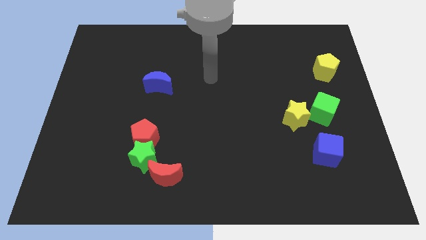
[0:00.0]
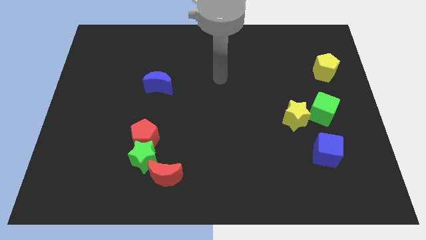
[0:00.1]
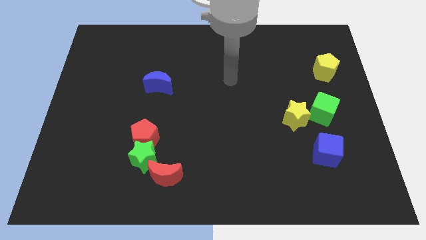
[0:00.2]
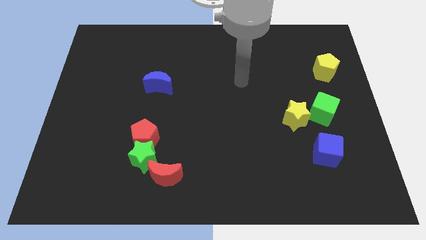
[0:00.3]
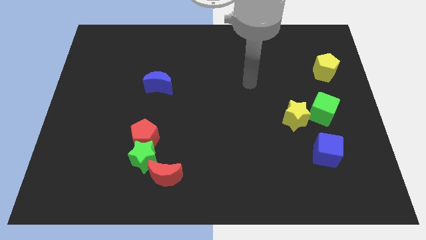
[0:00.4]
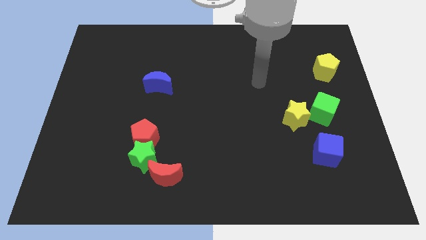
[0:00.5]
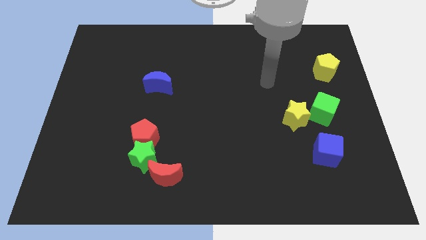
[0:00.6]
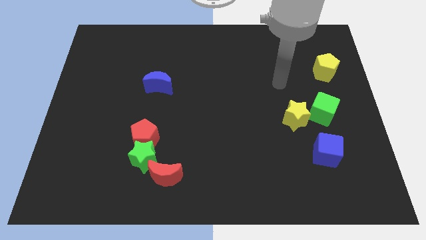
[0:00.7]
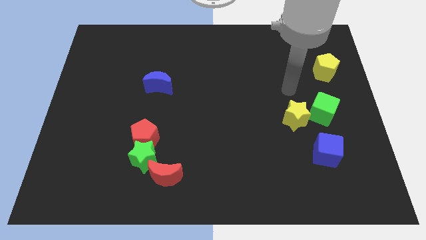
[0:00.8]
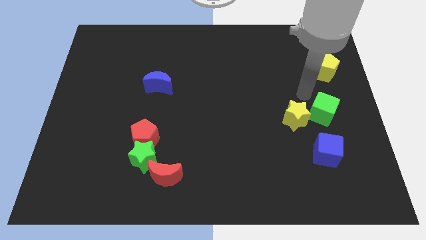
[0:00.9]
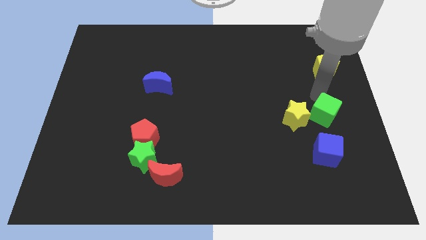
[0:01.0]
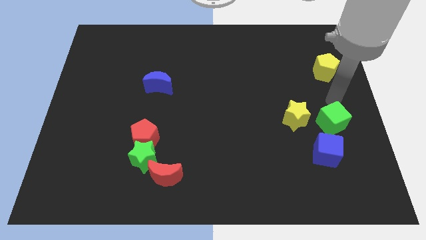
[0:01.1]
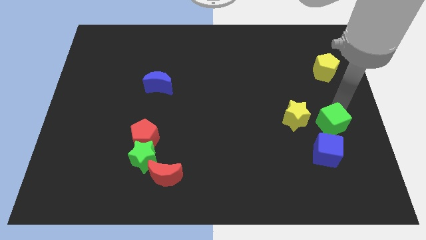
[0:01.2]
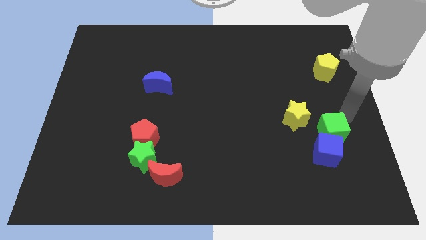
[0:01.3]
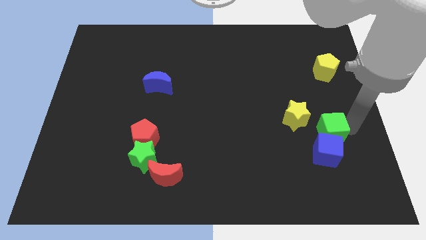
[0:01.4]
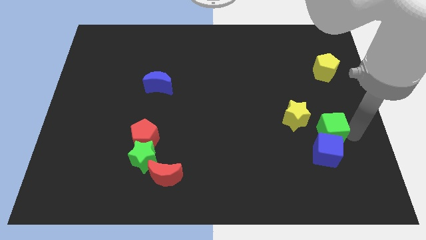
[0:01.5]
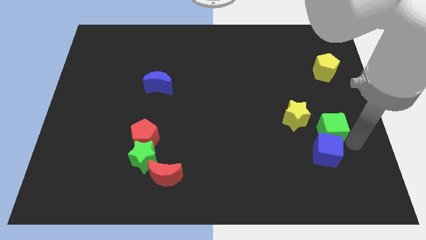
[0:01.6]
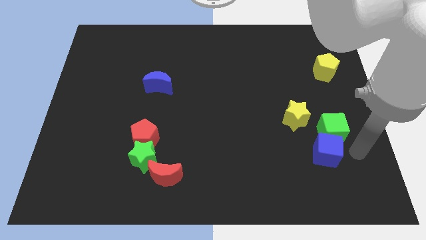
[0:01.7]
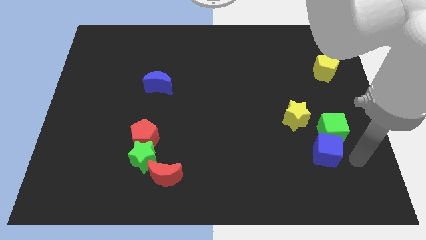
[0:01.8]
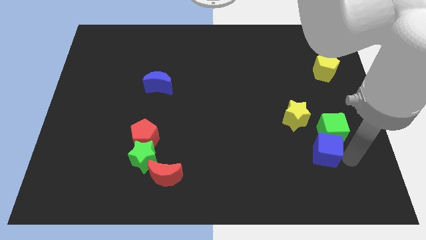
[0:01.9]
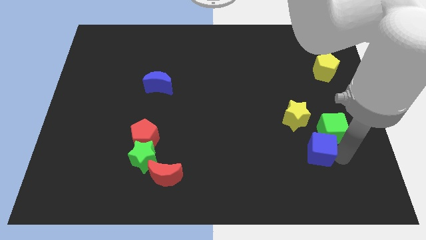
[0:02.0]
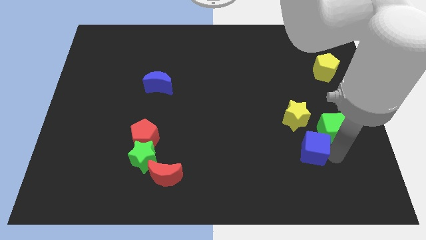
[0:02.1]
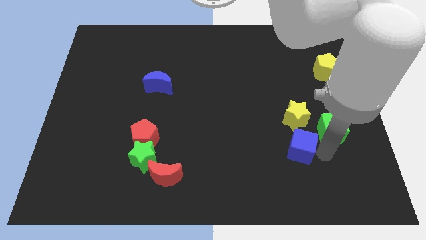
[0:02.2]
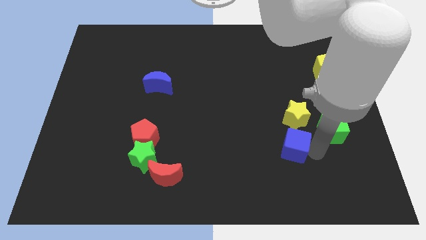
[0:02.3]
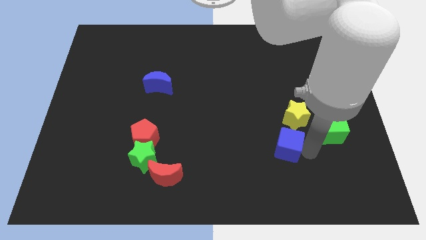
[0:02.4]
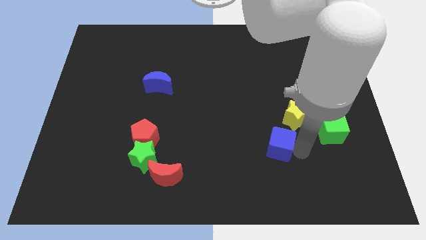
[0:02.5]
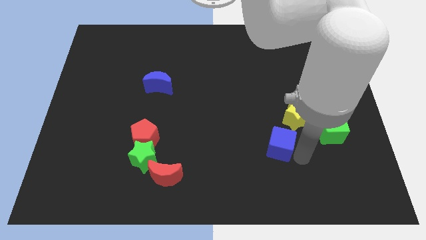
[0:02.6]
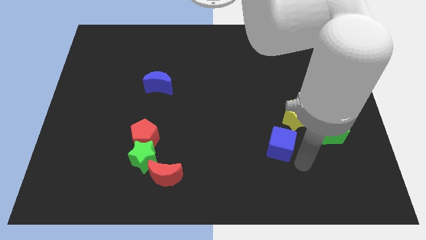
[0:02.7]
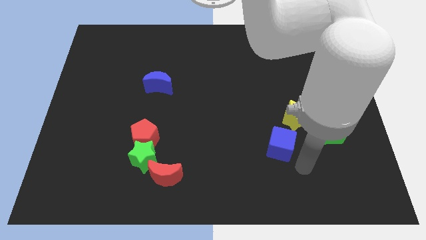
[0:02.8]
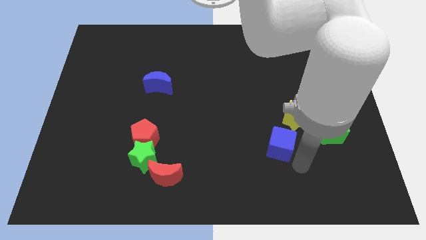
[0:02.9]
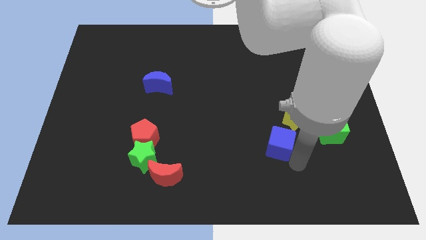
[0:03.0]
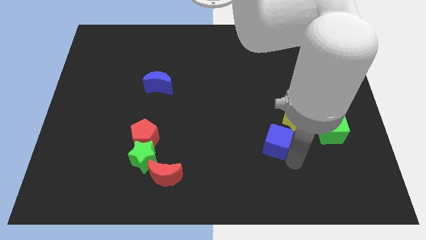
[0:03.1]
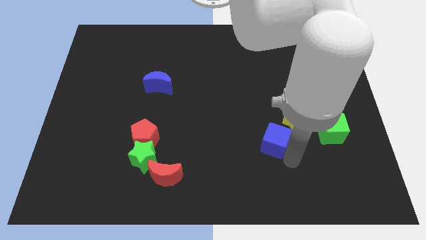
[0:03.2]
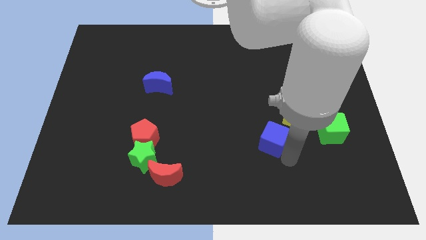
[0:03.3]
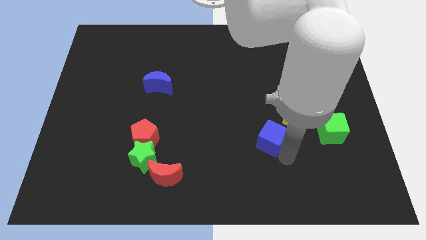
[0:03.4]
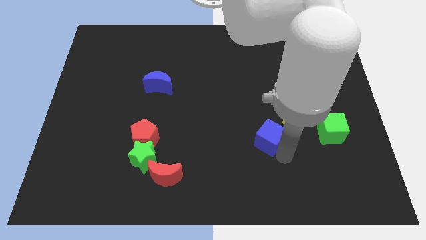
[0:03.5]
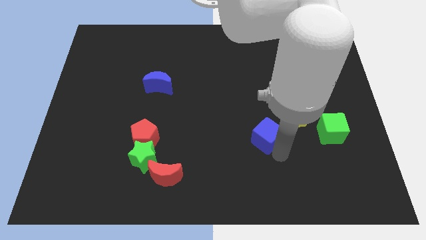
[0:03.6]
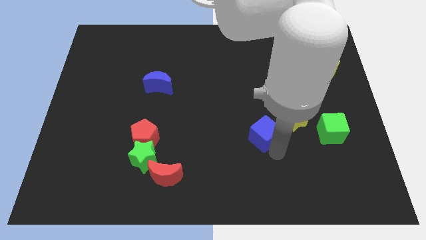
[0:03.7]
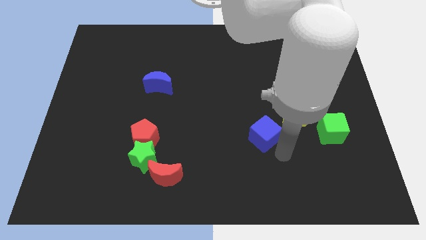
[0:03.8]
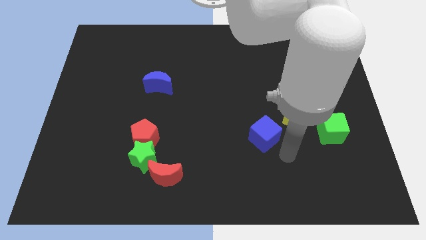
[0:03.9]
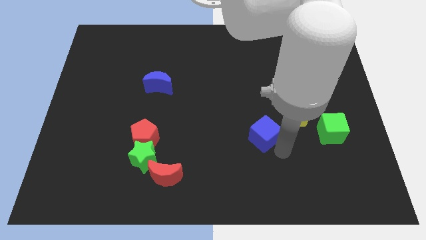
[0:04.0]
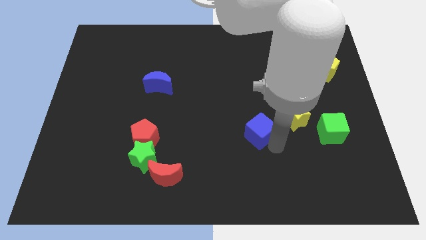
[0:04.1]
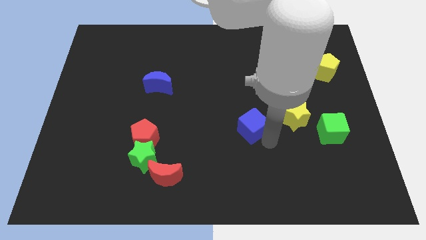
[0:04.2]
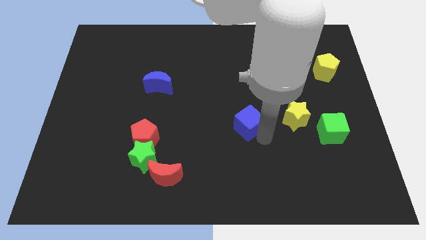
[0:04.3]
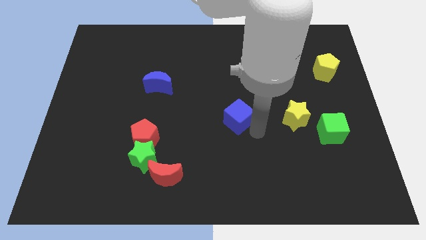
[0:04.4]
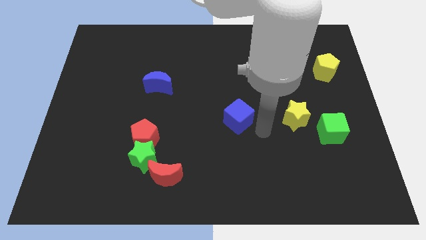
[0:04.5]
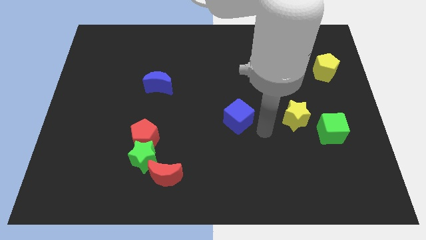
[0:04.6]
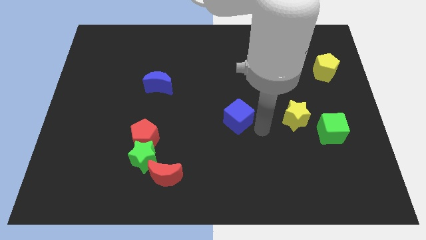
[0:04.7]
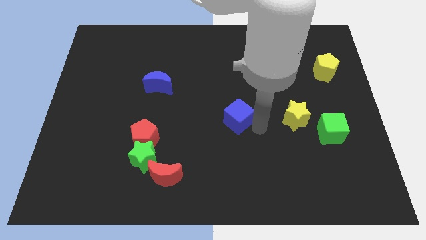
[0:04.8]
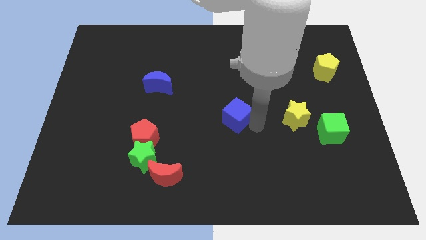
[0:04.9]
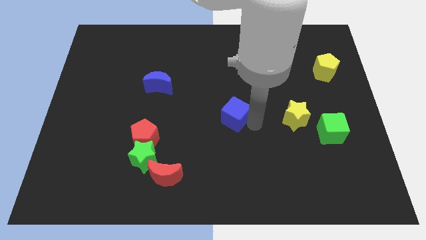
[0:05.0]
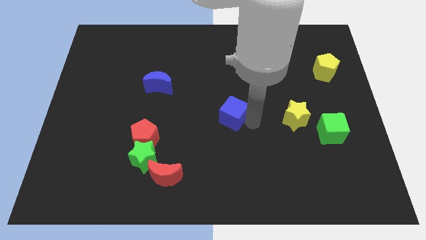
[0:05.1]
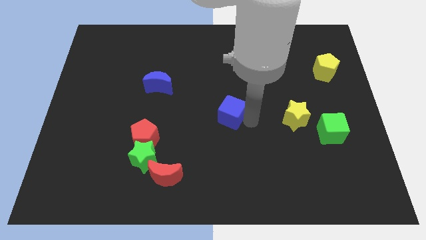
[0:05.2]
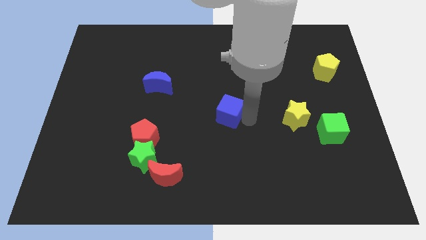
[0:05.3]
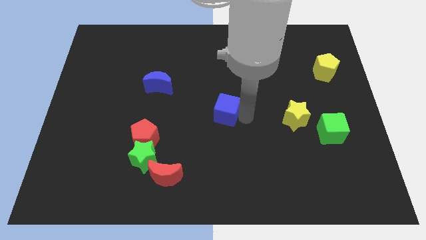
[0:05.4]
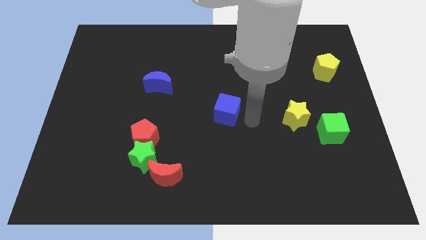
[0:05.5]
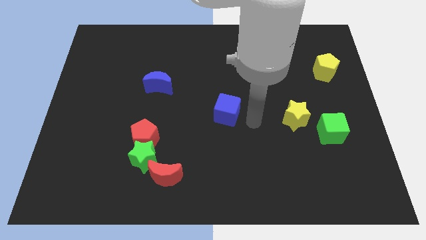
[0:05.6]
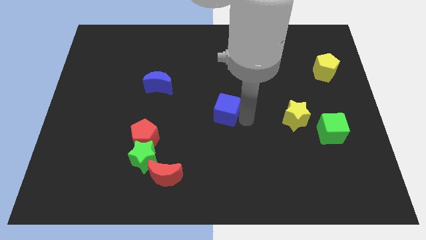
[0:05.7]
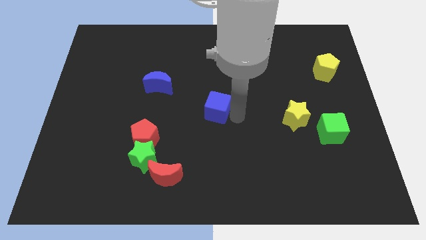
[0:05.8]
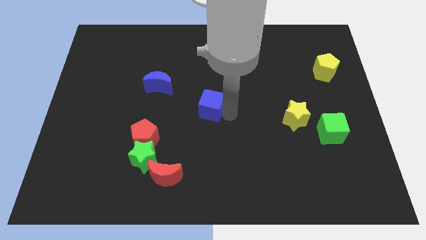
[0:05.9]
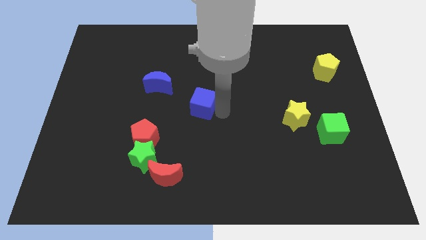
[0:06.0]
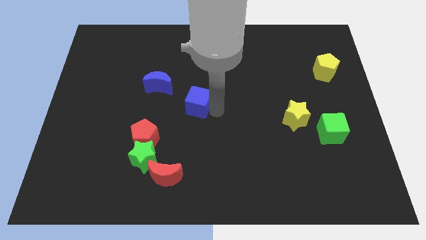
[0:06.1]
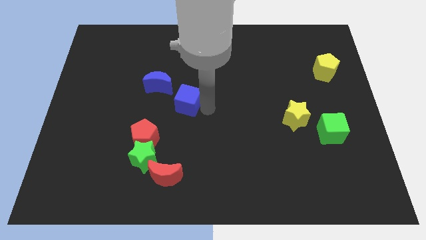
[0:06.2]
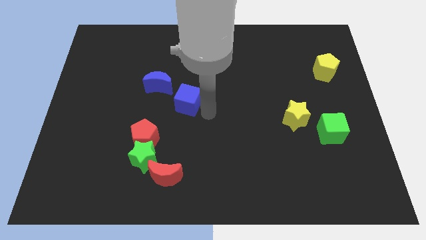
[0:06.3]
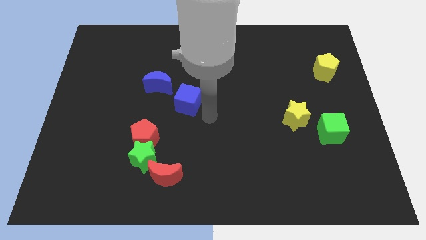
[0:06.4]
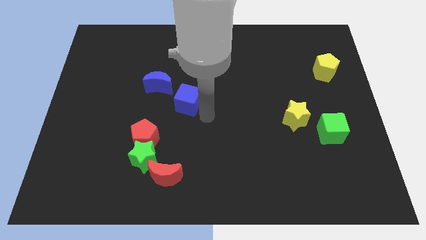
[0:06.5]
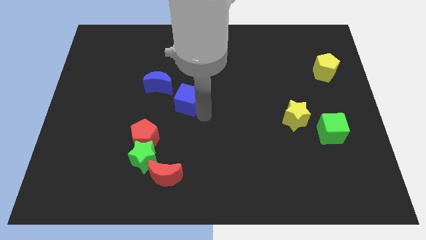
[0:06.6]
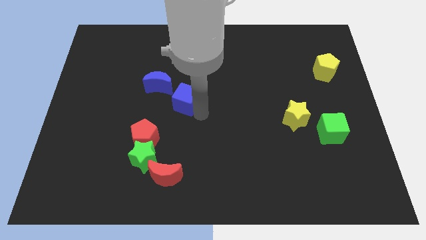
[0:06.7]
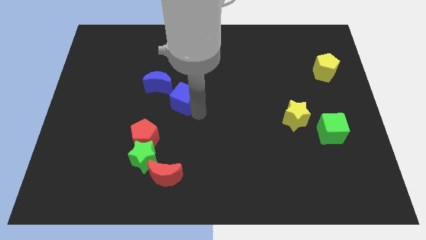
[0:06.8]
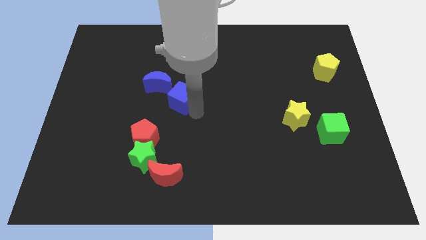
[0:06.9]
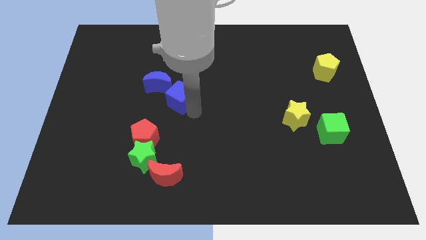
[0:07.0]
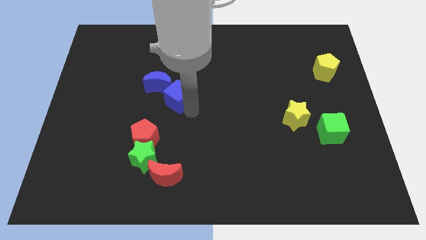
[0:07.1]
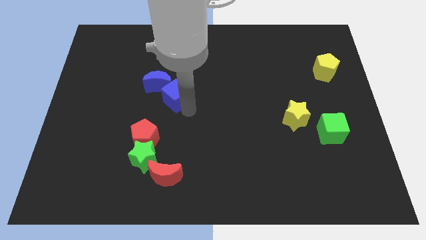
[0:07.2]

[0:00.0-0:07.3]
put the blue cube close to the blue moon
